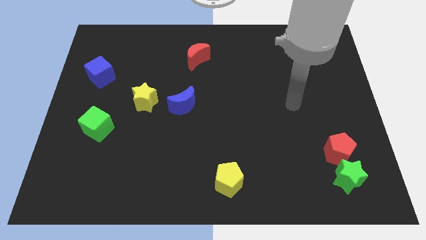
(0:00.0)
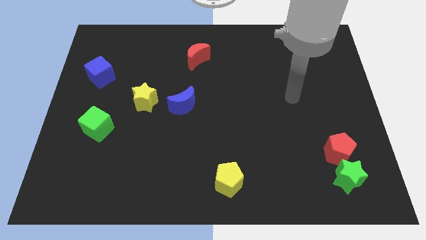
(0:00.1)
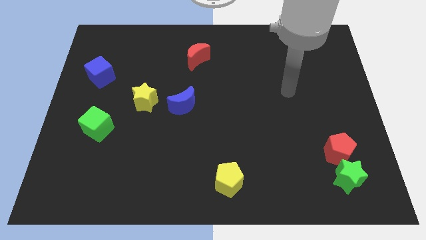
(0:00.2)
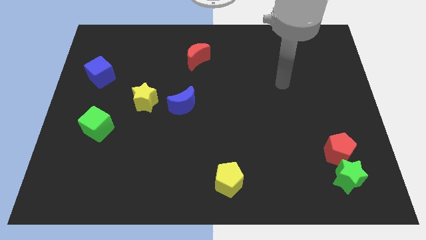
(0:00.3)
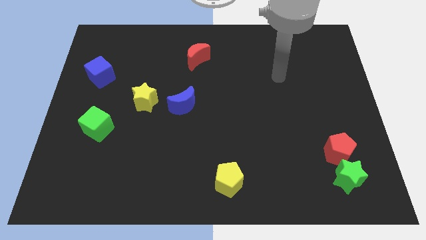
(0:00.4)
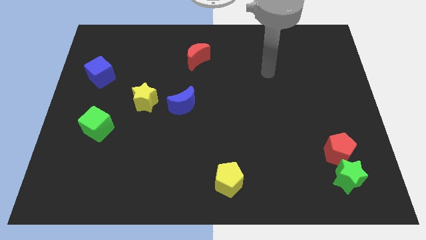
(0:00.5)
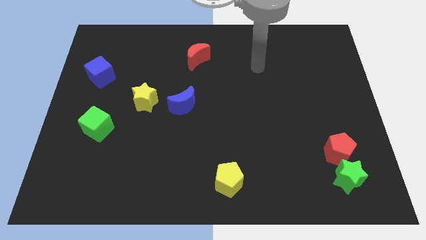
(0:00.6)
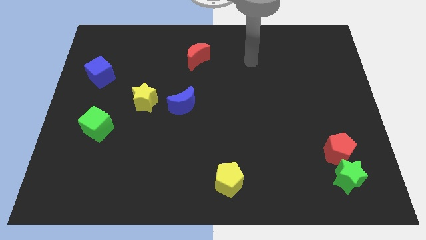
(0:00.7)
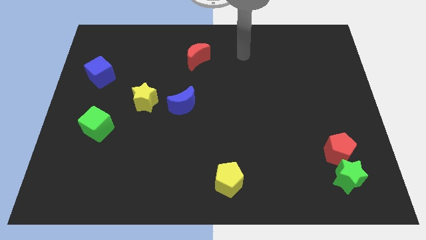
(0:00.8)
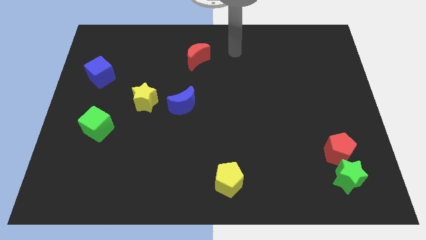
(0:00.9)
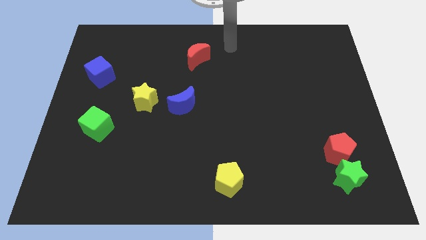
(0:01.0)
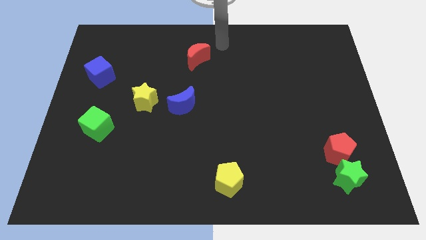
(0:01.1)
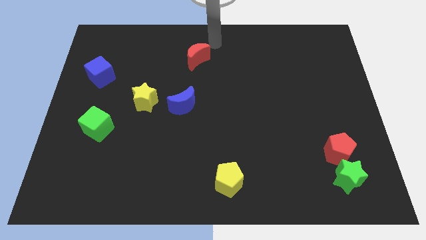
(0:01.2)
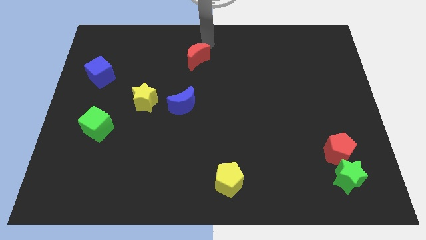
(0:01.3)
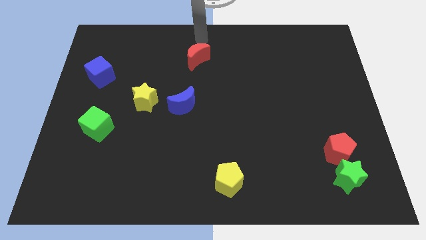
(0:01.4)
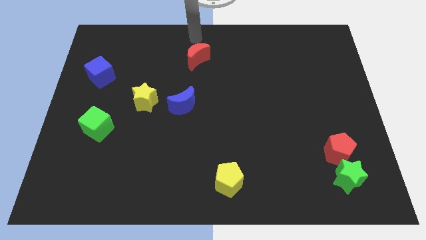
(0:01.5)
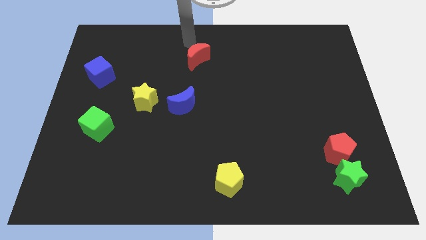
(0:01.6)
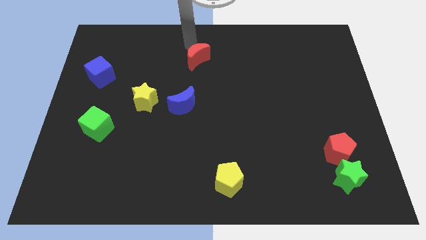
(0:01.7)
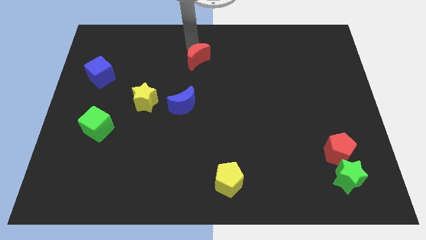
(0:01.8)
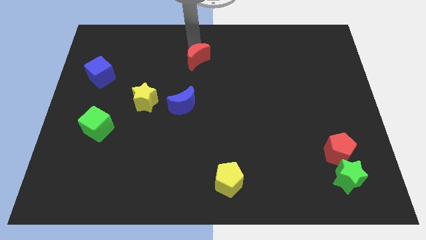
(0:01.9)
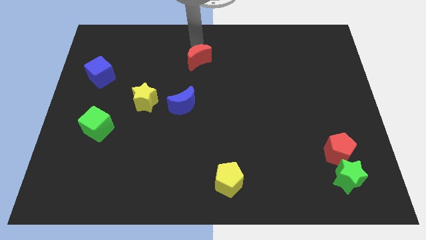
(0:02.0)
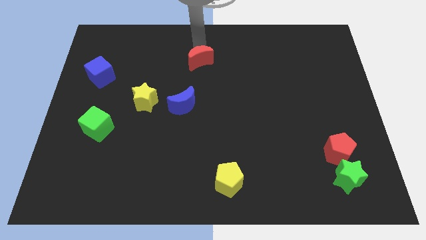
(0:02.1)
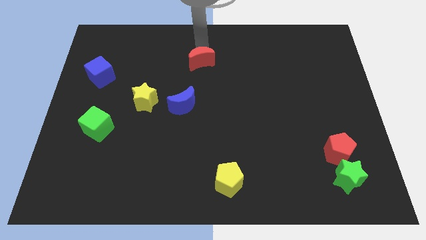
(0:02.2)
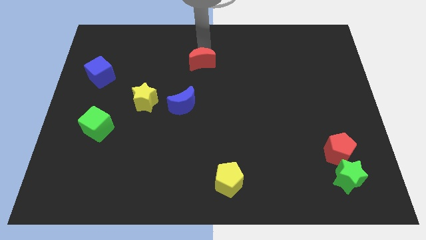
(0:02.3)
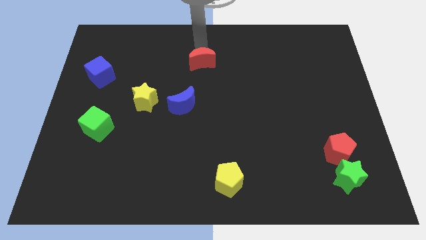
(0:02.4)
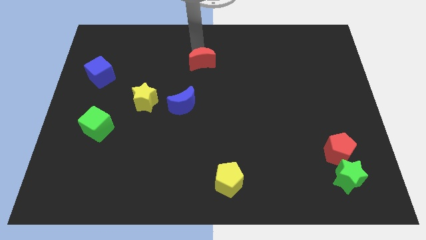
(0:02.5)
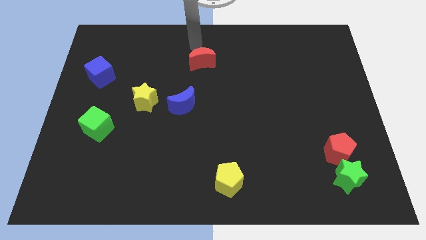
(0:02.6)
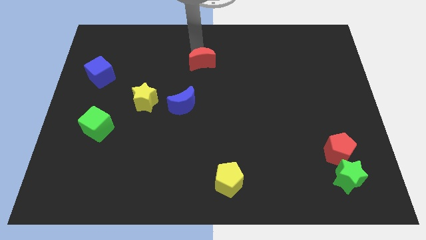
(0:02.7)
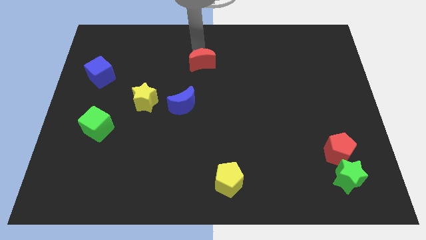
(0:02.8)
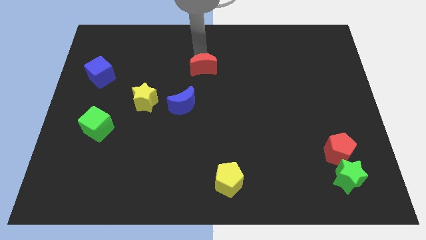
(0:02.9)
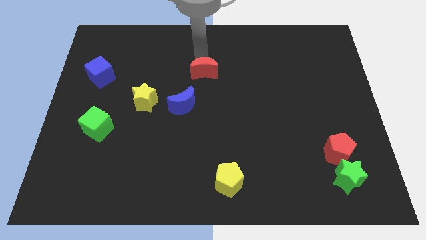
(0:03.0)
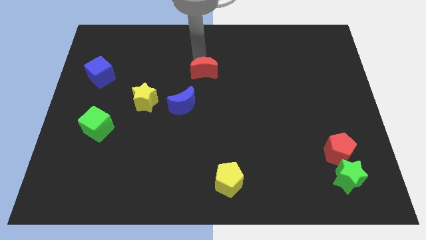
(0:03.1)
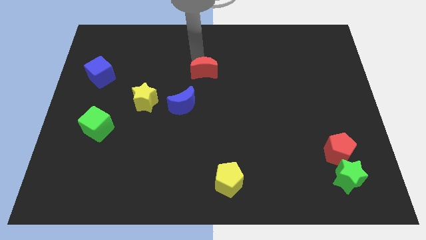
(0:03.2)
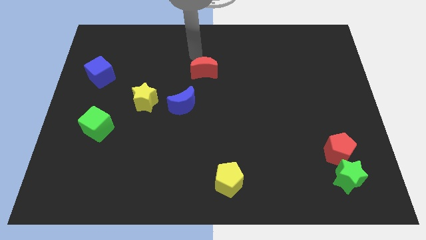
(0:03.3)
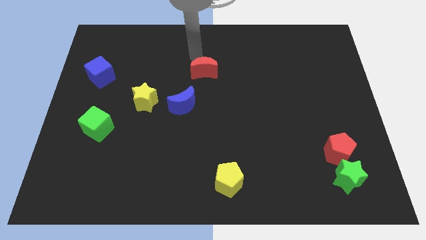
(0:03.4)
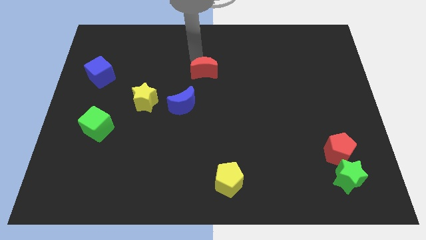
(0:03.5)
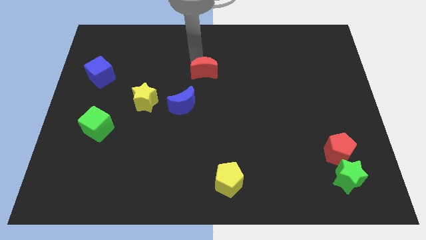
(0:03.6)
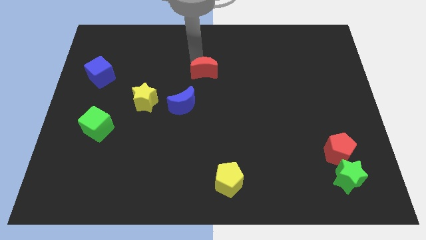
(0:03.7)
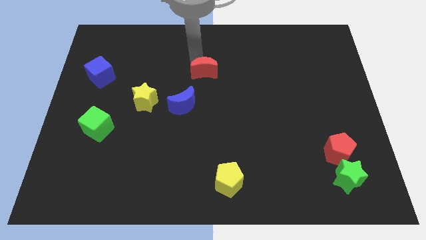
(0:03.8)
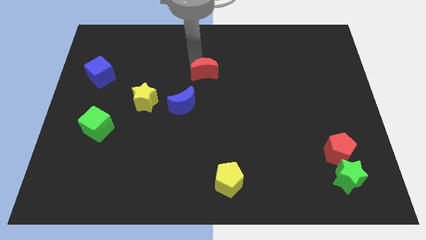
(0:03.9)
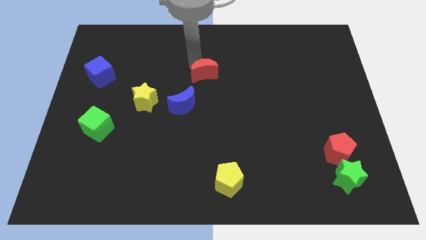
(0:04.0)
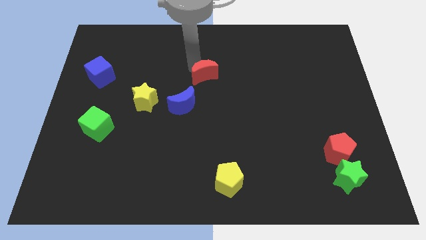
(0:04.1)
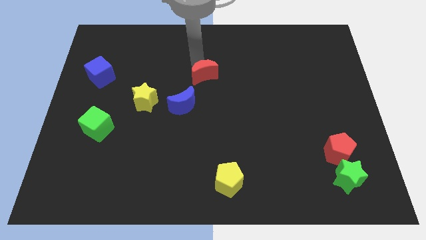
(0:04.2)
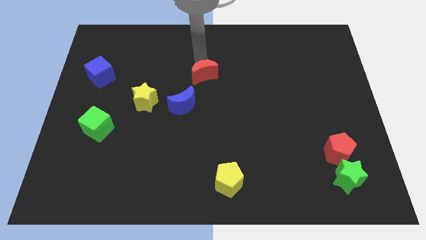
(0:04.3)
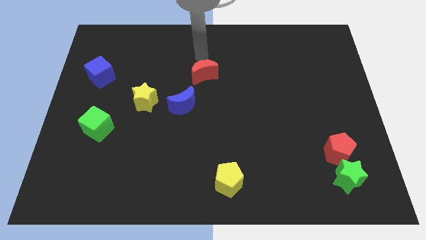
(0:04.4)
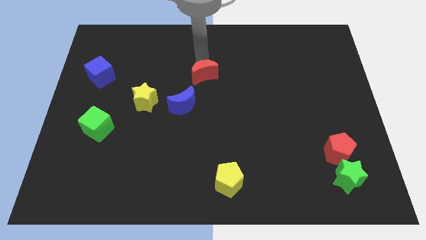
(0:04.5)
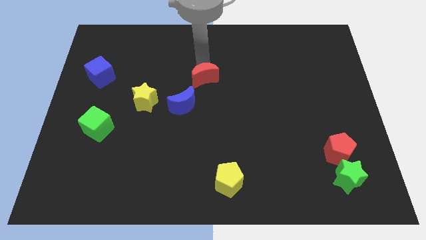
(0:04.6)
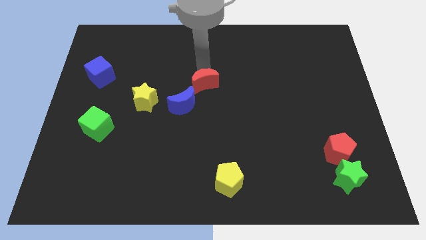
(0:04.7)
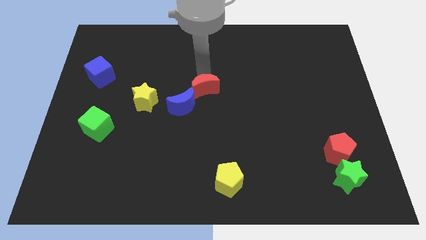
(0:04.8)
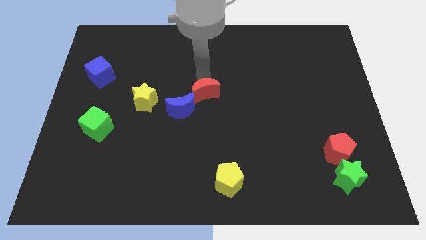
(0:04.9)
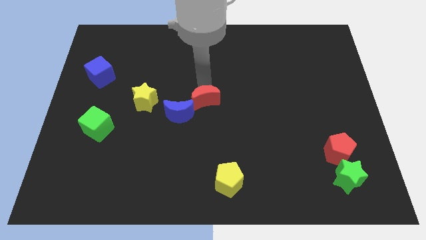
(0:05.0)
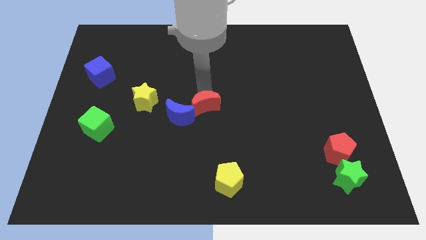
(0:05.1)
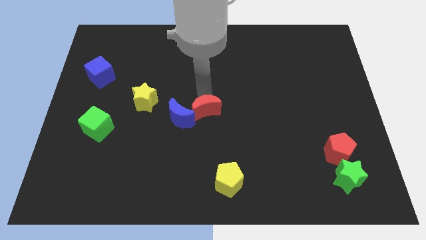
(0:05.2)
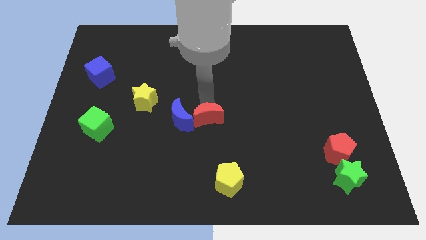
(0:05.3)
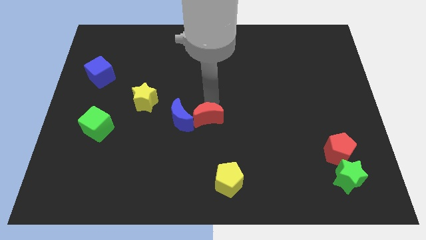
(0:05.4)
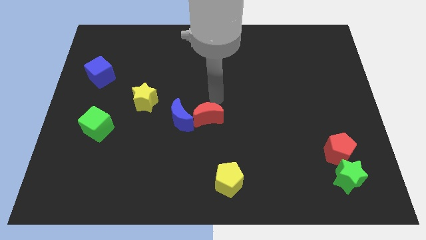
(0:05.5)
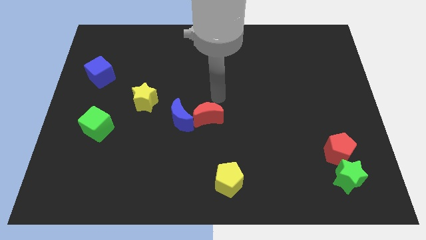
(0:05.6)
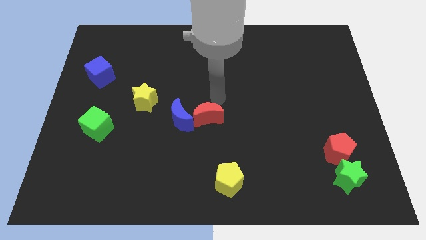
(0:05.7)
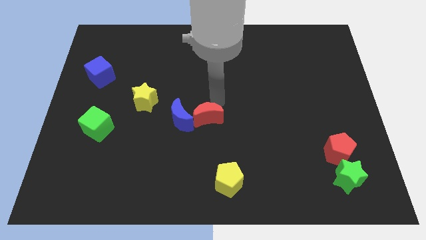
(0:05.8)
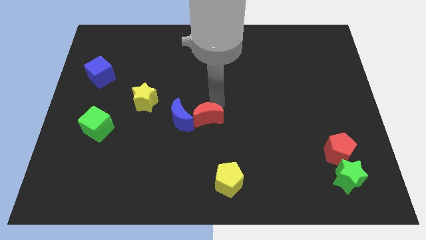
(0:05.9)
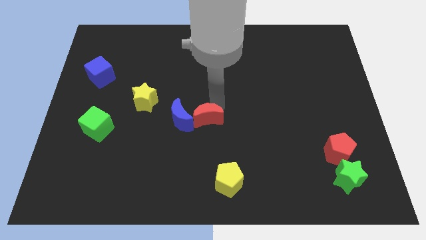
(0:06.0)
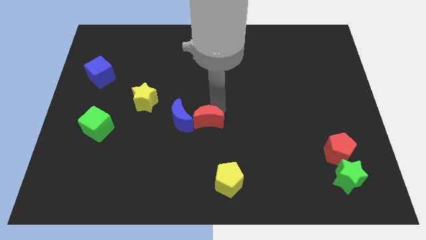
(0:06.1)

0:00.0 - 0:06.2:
slide the red moon down

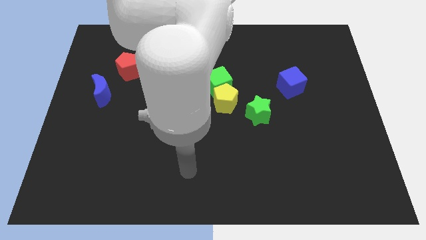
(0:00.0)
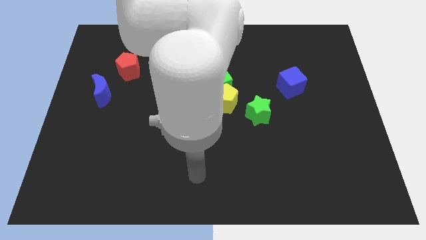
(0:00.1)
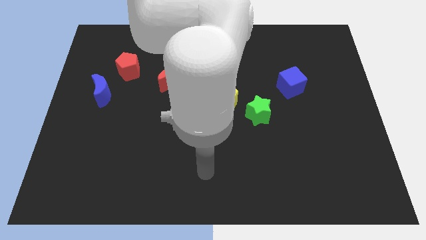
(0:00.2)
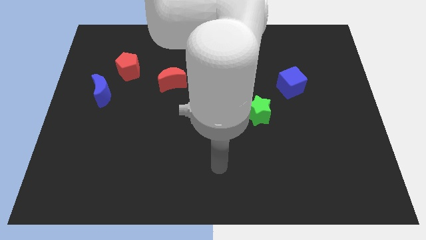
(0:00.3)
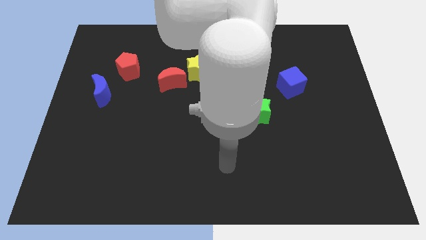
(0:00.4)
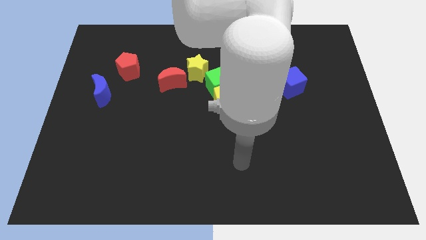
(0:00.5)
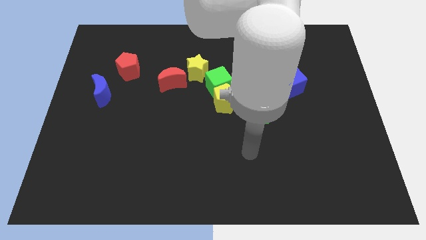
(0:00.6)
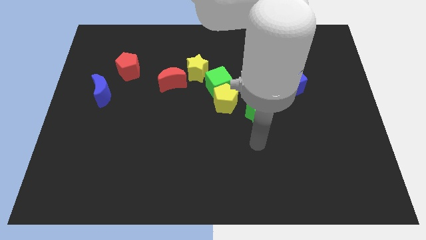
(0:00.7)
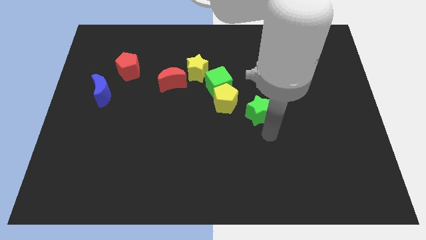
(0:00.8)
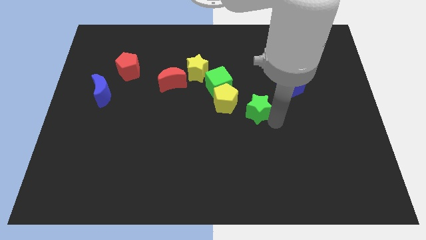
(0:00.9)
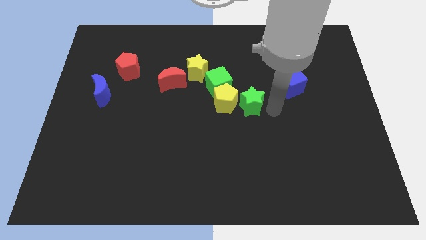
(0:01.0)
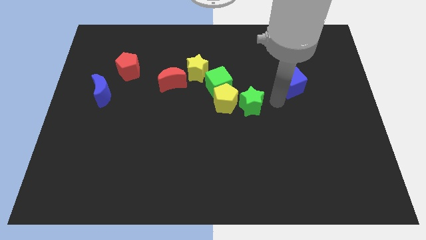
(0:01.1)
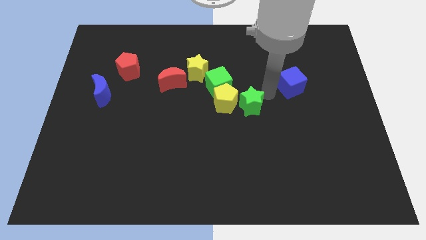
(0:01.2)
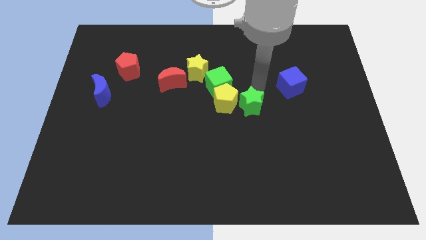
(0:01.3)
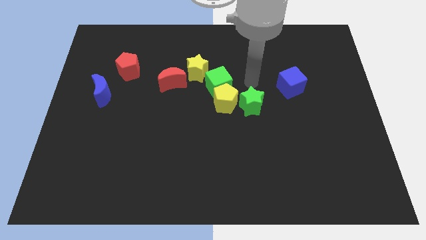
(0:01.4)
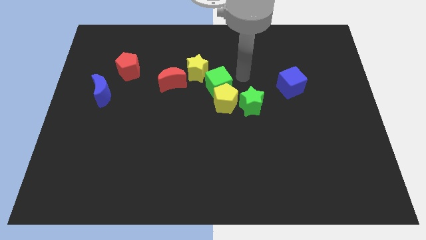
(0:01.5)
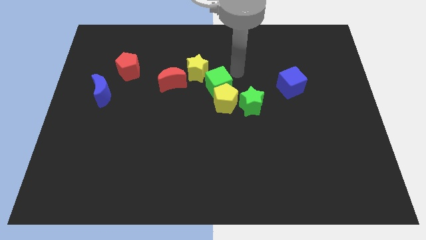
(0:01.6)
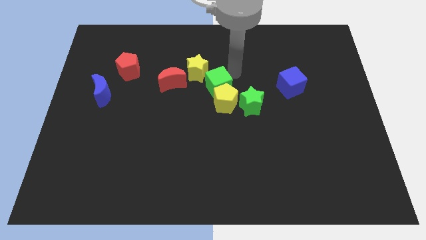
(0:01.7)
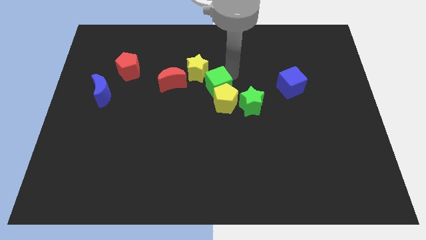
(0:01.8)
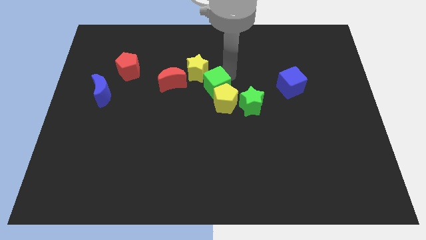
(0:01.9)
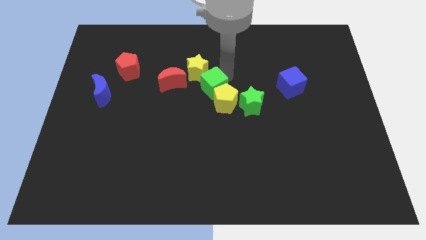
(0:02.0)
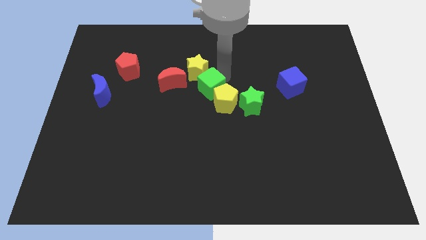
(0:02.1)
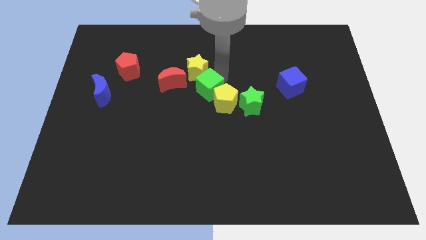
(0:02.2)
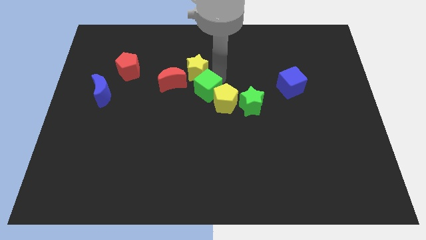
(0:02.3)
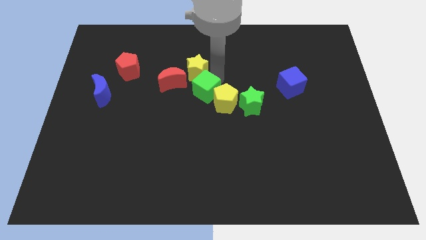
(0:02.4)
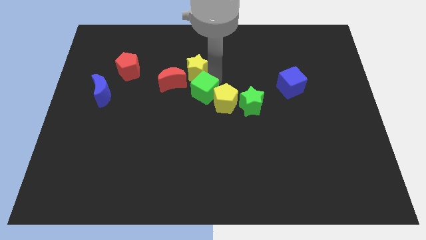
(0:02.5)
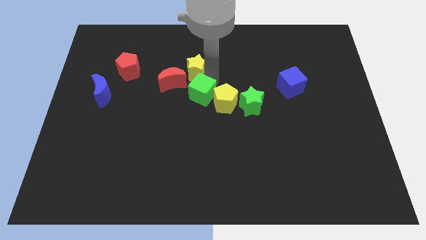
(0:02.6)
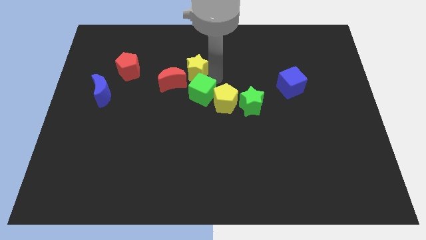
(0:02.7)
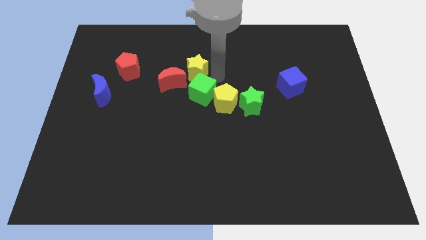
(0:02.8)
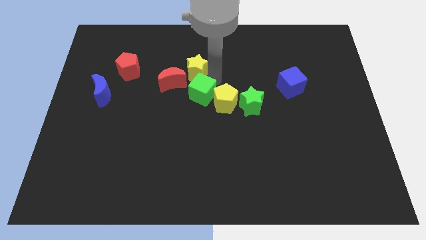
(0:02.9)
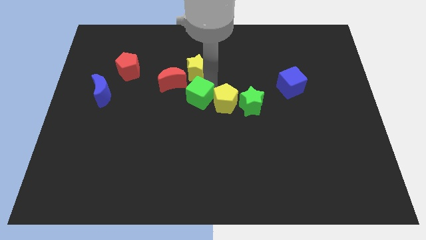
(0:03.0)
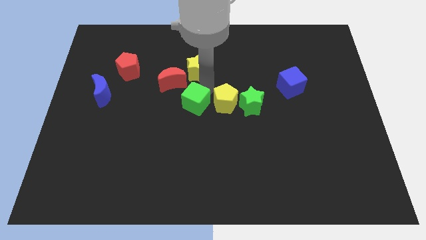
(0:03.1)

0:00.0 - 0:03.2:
slightly slide the green cube diagonally down and left
